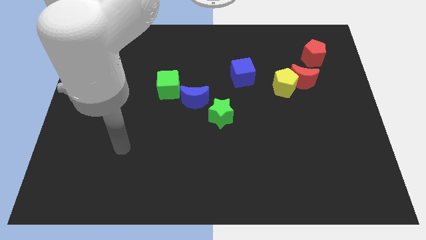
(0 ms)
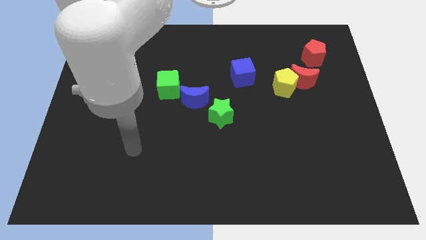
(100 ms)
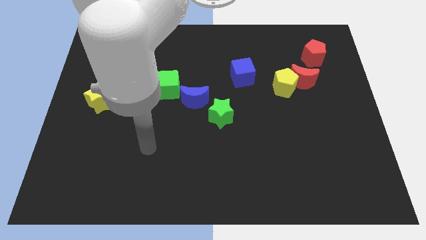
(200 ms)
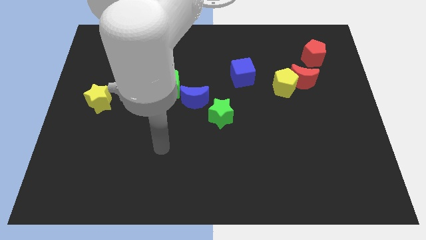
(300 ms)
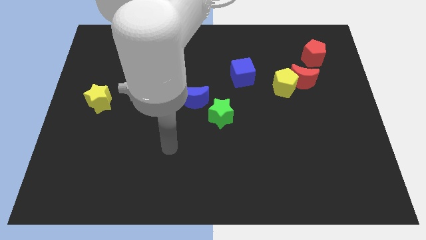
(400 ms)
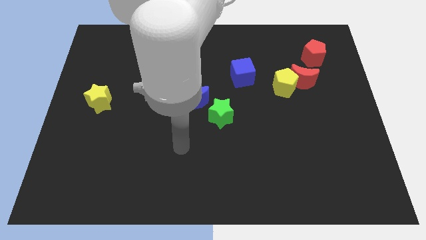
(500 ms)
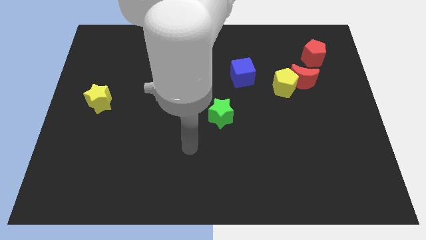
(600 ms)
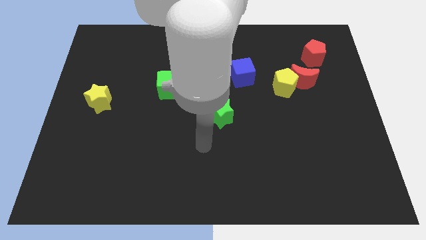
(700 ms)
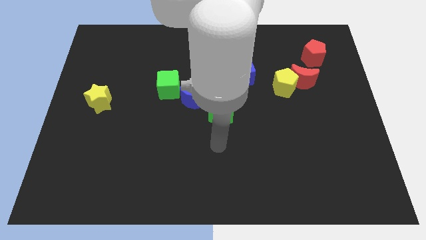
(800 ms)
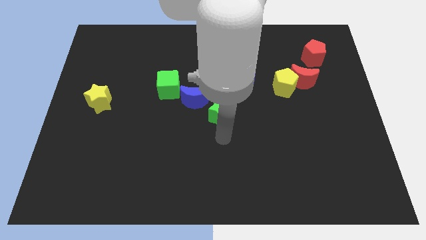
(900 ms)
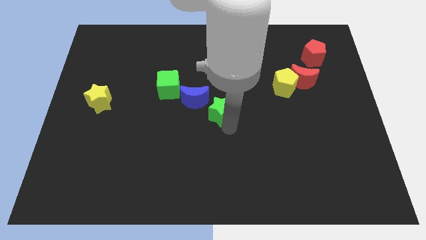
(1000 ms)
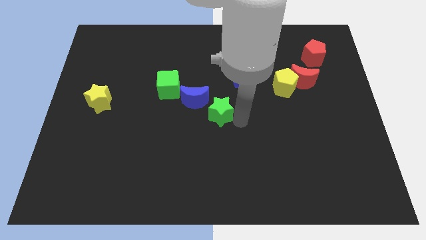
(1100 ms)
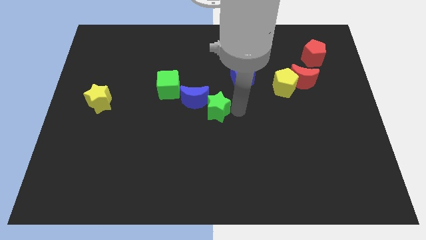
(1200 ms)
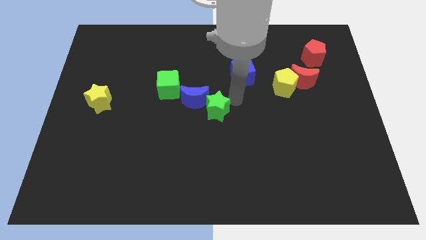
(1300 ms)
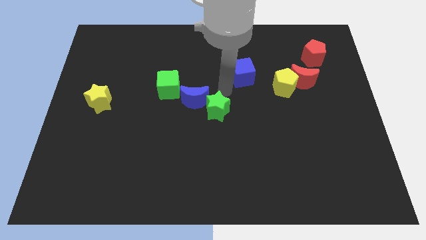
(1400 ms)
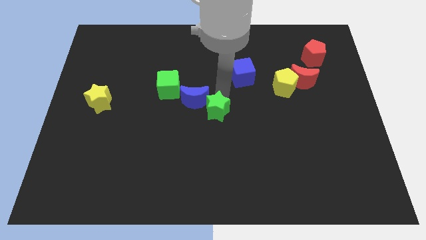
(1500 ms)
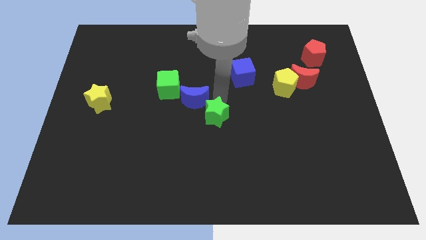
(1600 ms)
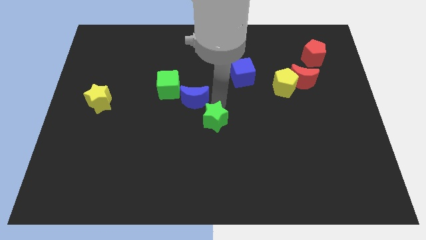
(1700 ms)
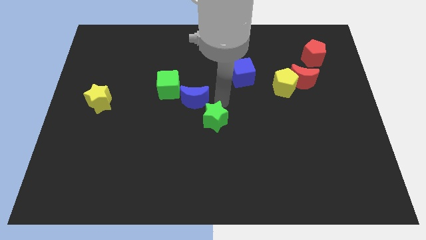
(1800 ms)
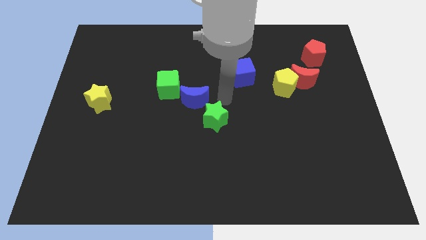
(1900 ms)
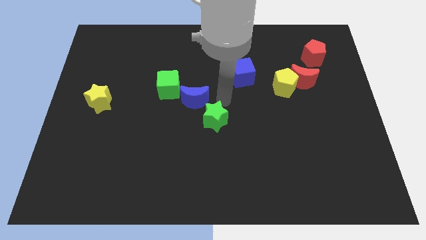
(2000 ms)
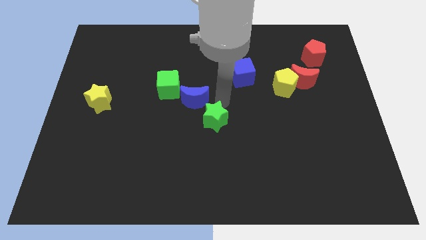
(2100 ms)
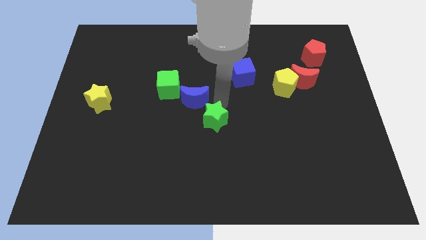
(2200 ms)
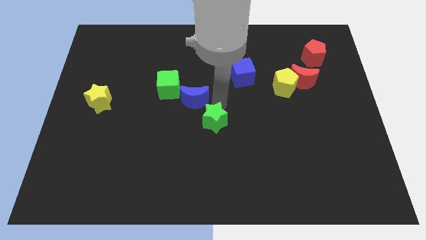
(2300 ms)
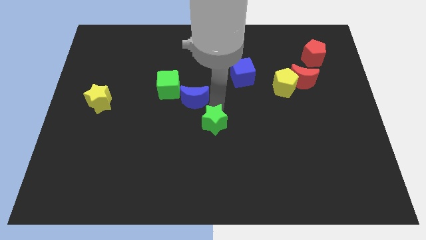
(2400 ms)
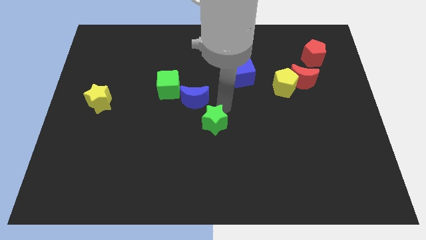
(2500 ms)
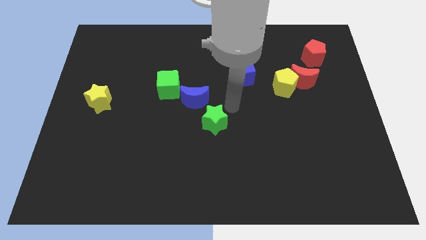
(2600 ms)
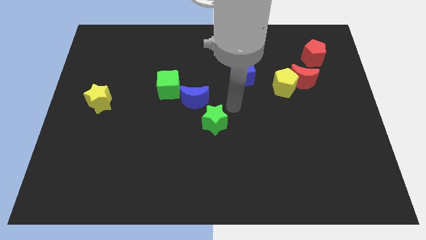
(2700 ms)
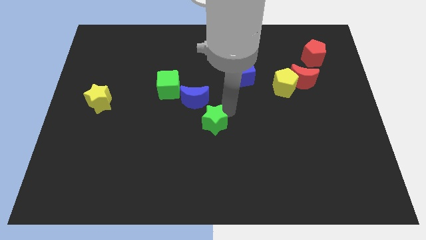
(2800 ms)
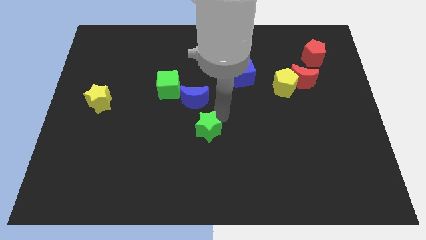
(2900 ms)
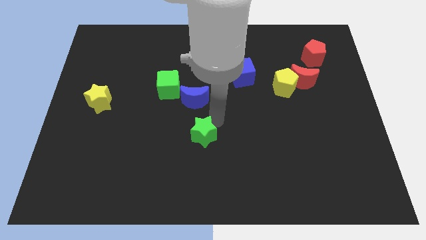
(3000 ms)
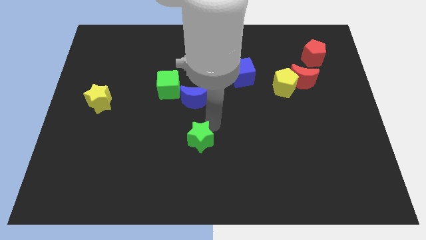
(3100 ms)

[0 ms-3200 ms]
slide the green star slightly diagonally down and to the left

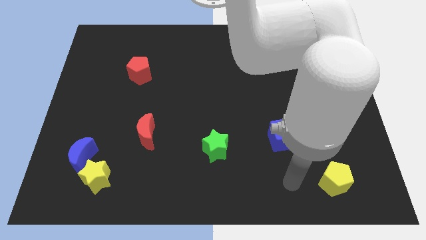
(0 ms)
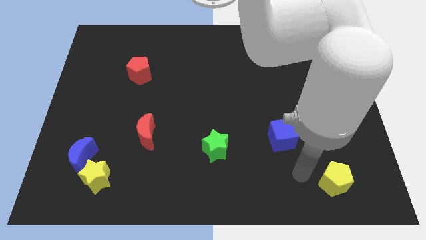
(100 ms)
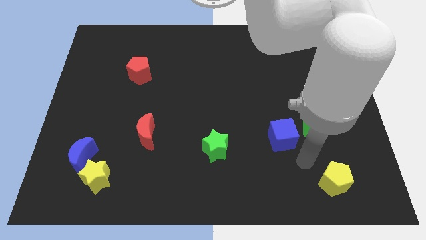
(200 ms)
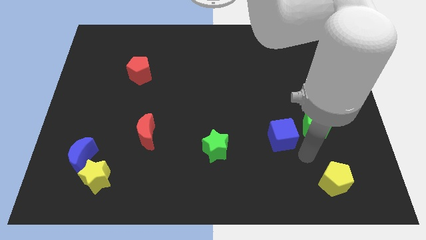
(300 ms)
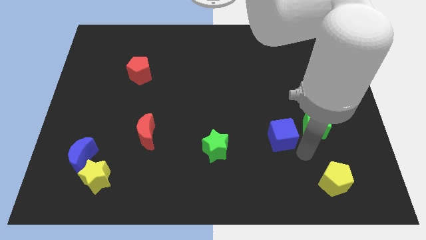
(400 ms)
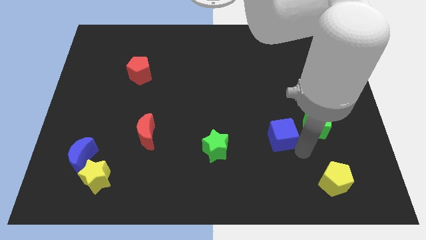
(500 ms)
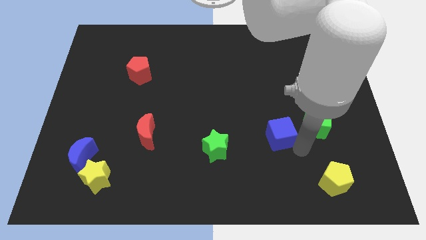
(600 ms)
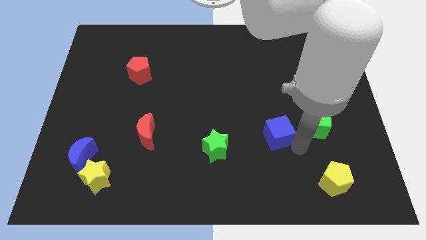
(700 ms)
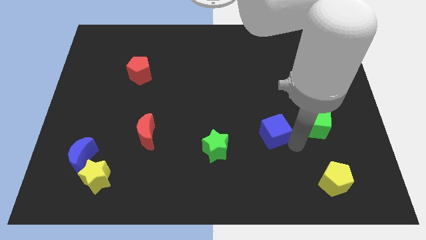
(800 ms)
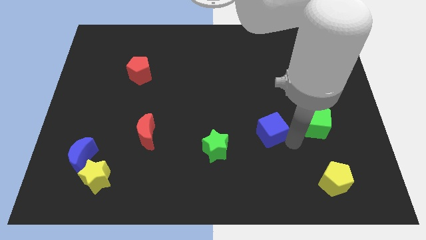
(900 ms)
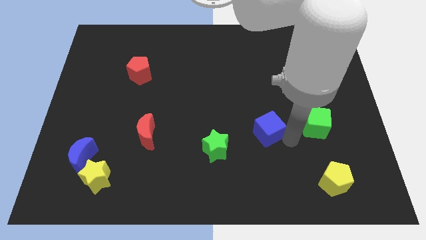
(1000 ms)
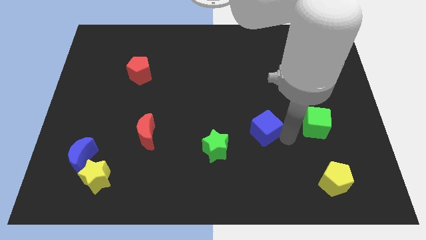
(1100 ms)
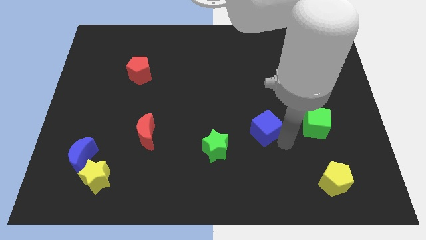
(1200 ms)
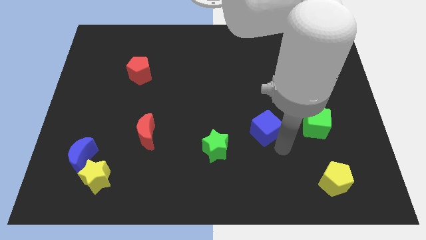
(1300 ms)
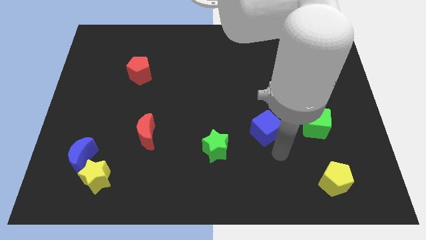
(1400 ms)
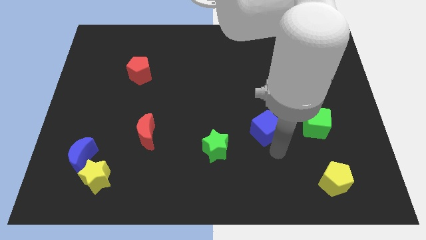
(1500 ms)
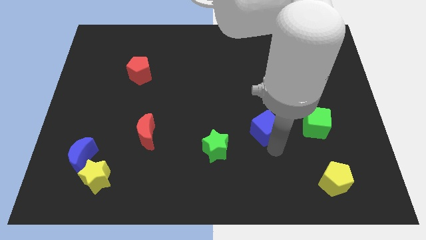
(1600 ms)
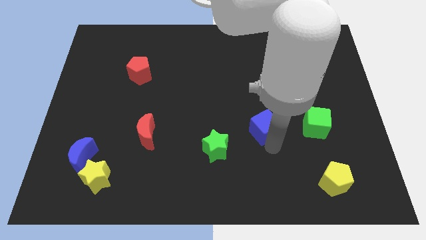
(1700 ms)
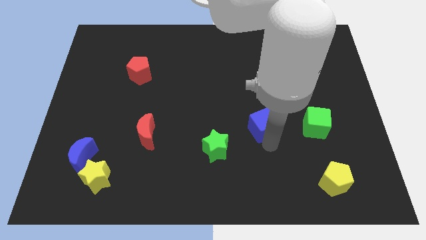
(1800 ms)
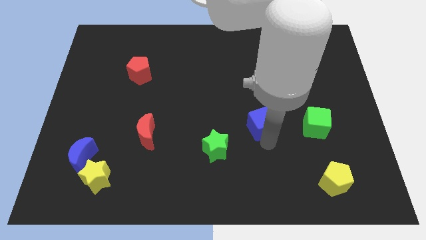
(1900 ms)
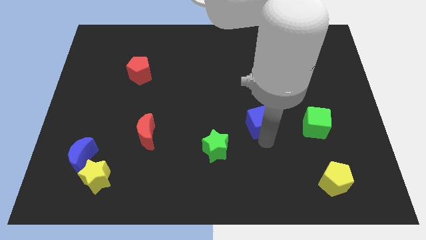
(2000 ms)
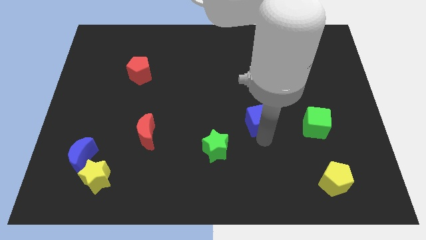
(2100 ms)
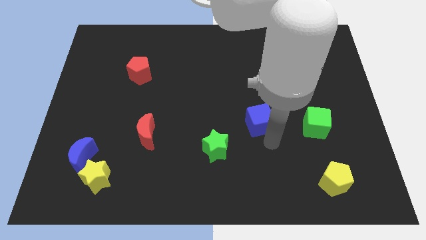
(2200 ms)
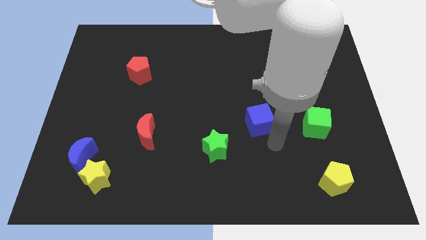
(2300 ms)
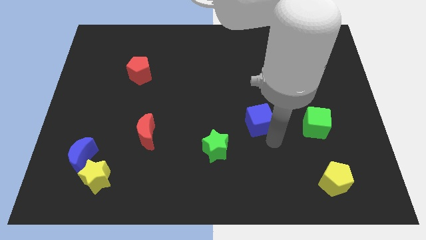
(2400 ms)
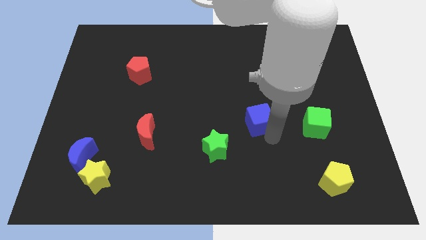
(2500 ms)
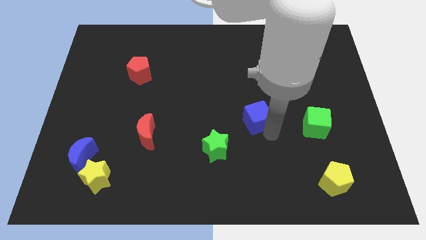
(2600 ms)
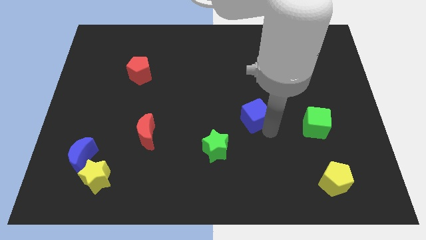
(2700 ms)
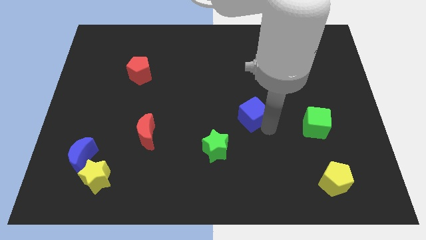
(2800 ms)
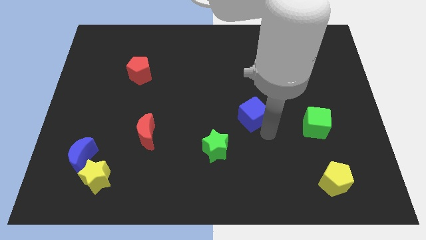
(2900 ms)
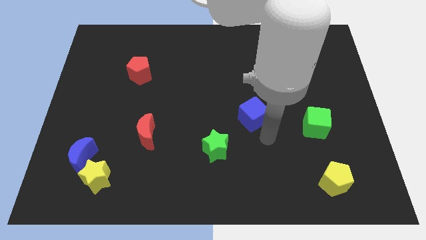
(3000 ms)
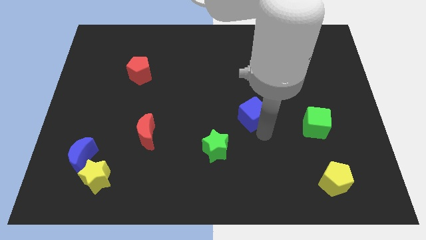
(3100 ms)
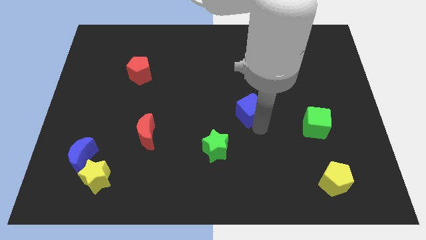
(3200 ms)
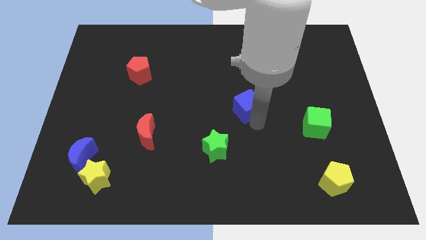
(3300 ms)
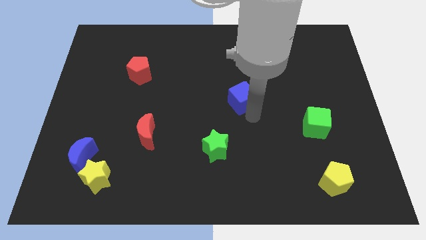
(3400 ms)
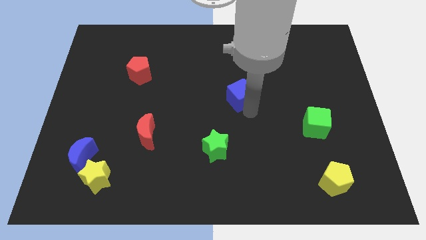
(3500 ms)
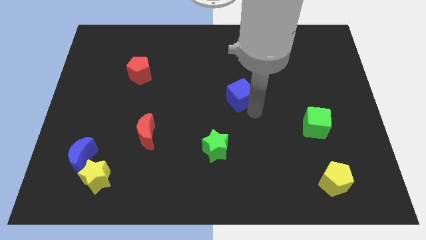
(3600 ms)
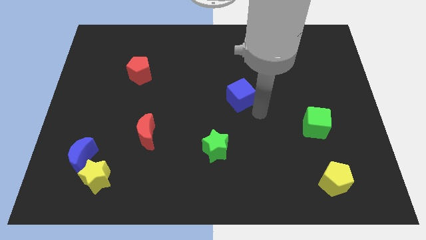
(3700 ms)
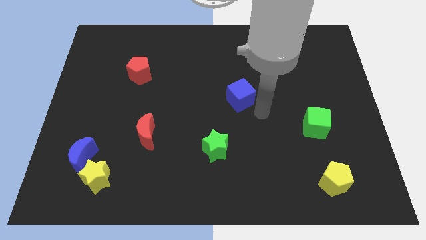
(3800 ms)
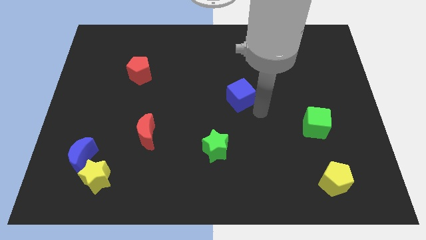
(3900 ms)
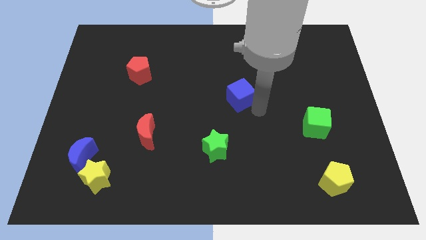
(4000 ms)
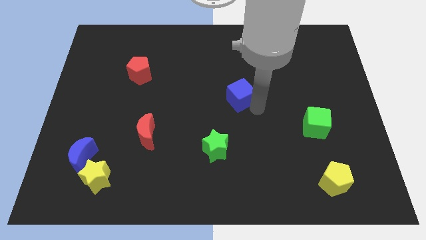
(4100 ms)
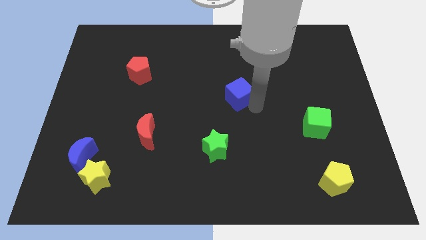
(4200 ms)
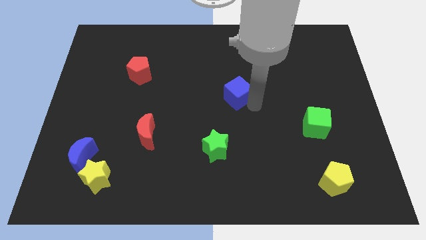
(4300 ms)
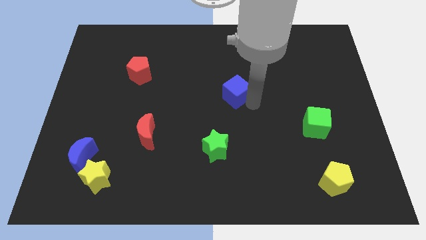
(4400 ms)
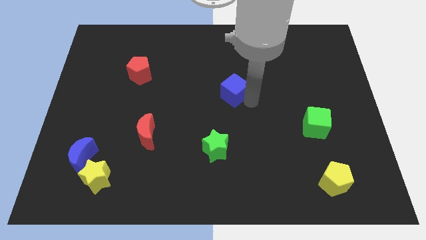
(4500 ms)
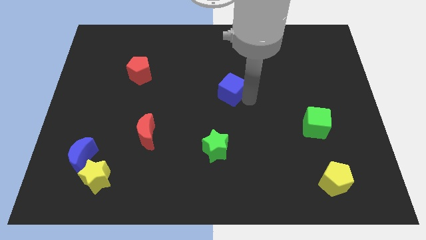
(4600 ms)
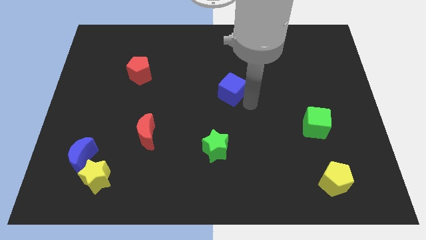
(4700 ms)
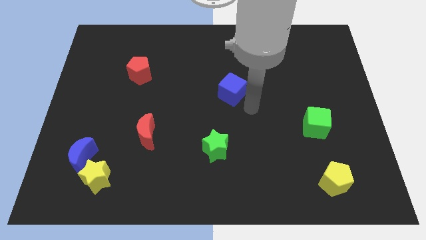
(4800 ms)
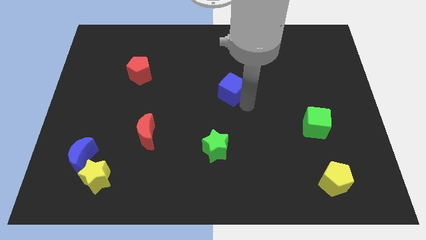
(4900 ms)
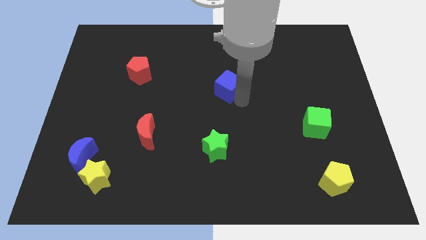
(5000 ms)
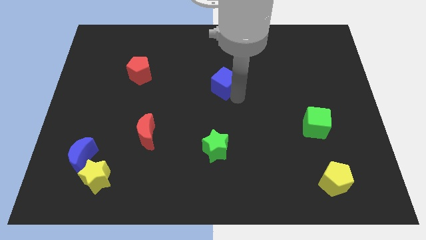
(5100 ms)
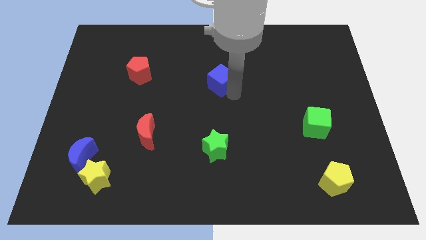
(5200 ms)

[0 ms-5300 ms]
slide the blue cube up and left
